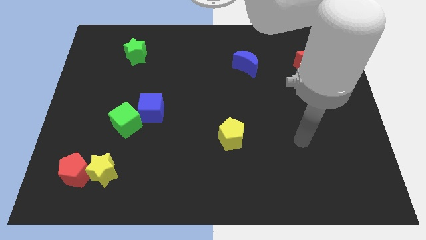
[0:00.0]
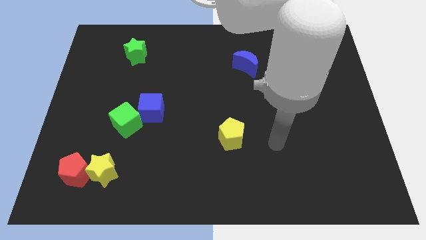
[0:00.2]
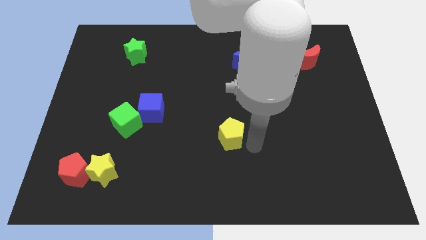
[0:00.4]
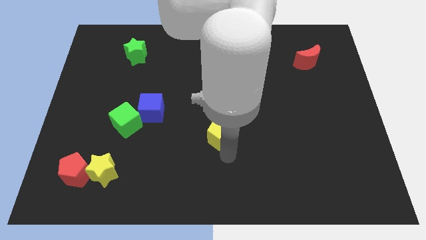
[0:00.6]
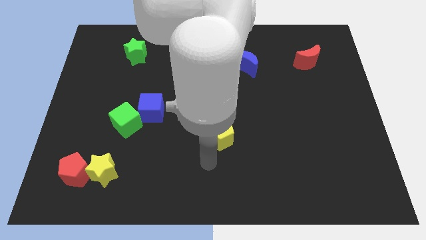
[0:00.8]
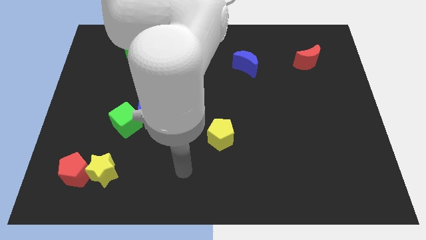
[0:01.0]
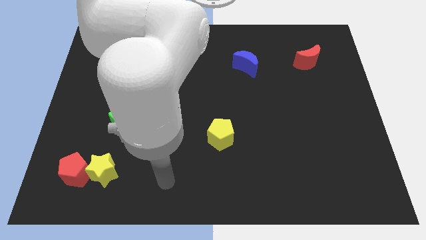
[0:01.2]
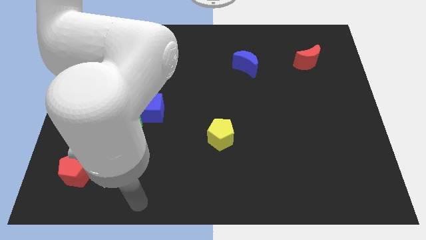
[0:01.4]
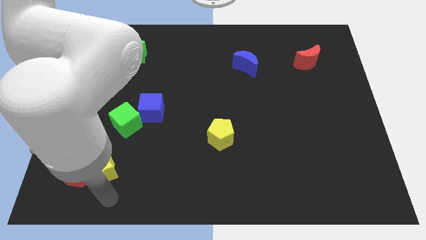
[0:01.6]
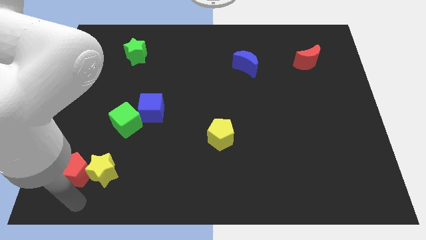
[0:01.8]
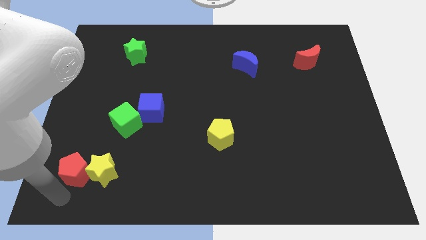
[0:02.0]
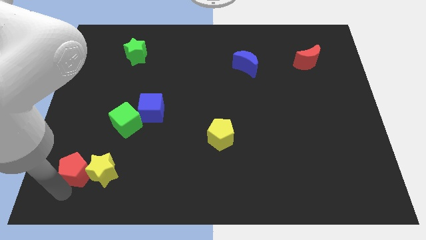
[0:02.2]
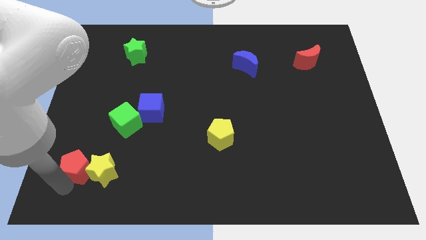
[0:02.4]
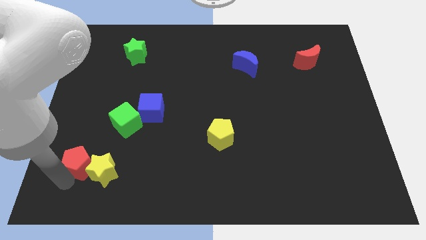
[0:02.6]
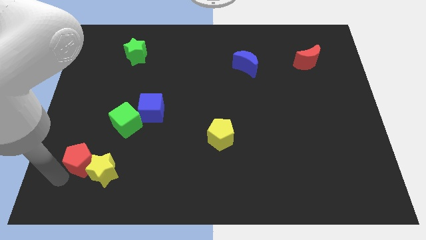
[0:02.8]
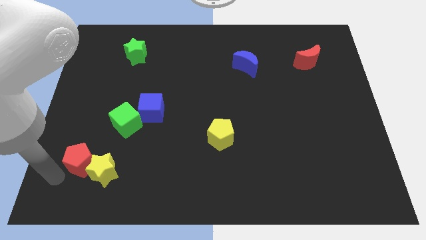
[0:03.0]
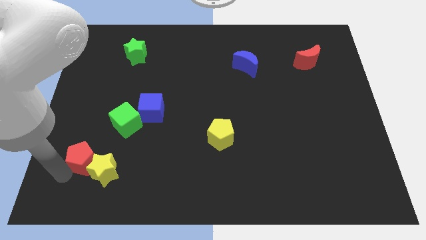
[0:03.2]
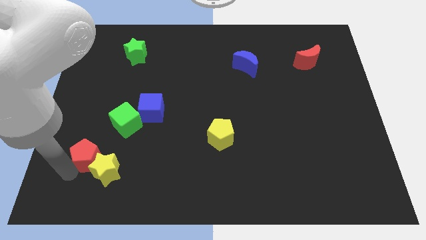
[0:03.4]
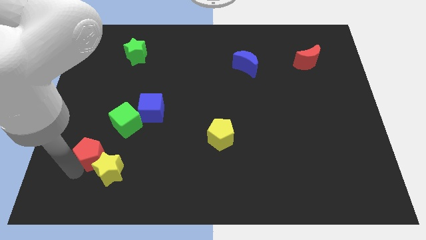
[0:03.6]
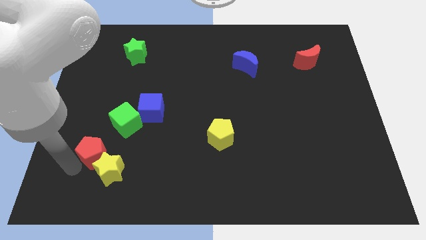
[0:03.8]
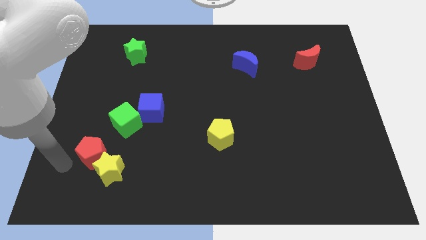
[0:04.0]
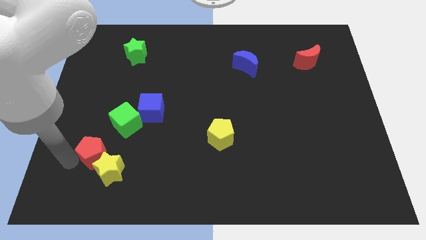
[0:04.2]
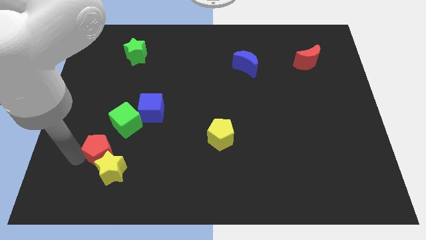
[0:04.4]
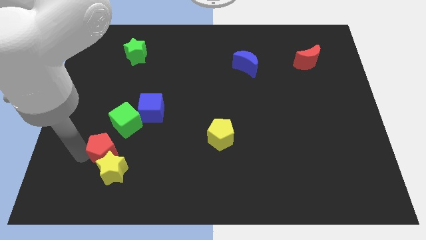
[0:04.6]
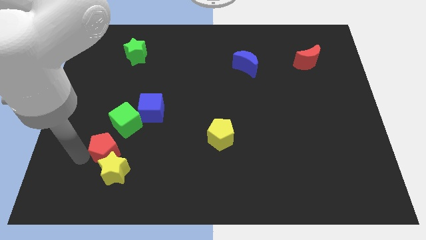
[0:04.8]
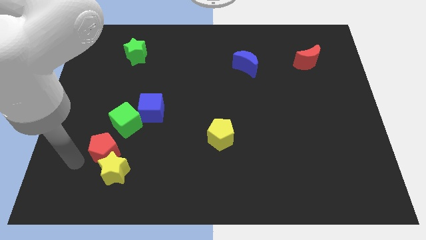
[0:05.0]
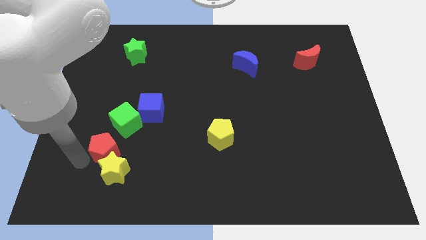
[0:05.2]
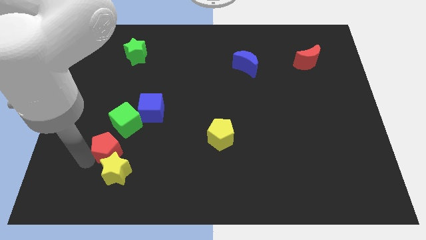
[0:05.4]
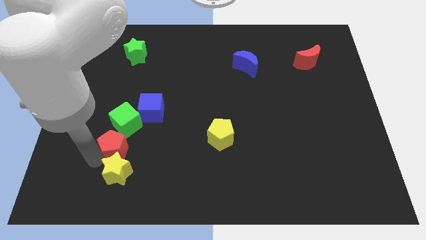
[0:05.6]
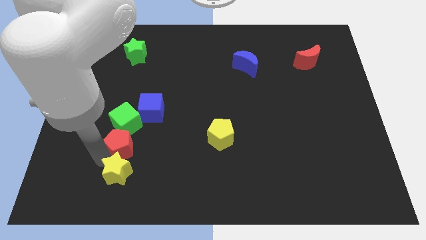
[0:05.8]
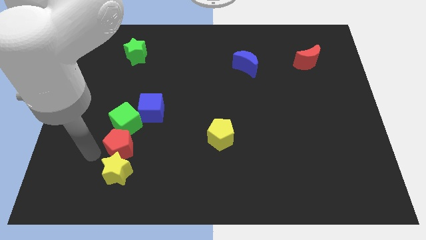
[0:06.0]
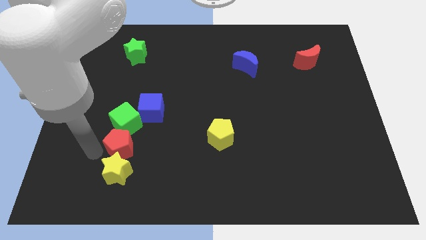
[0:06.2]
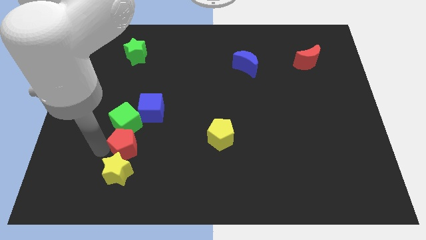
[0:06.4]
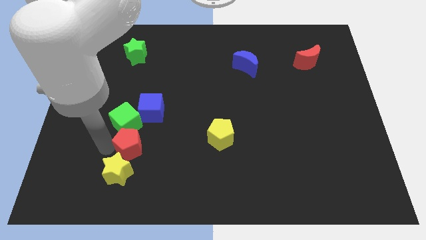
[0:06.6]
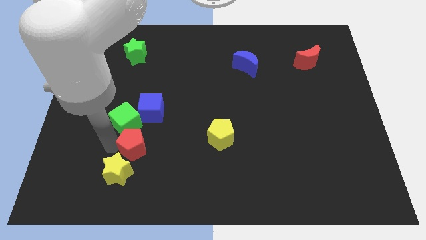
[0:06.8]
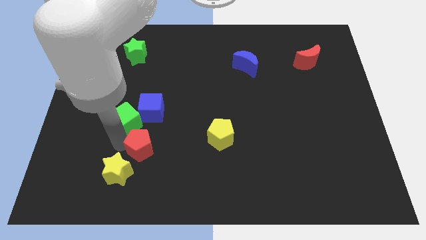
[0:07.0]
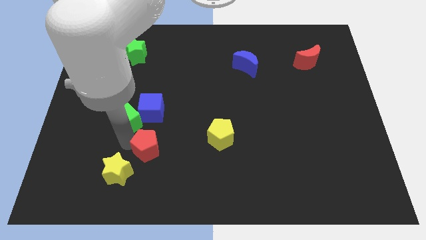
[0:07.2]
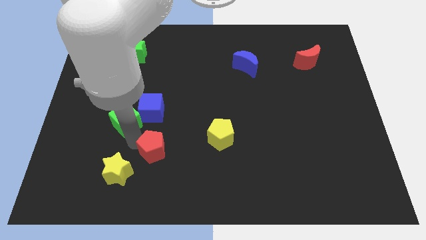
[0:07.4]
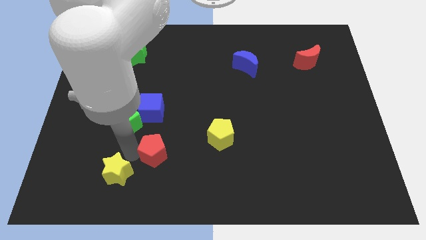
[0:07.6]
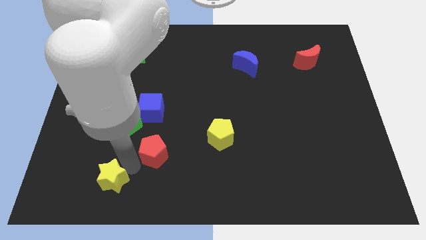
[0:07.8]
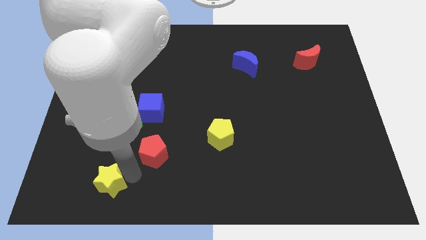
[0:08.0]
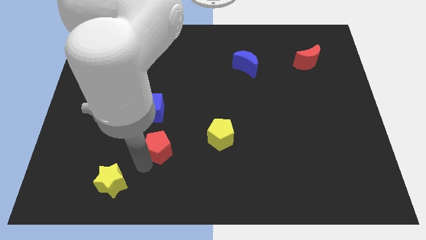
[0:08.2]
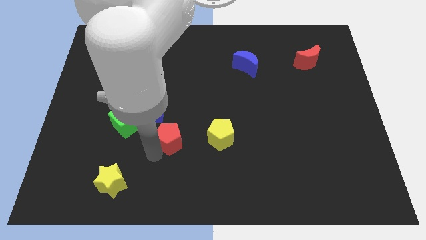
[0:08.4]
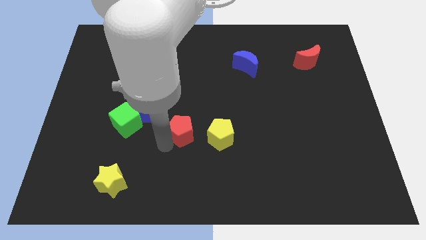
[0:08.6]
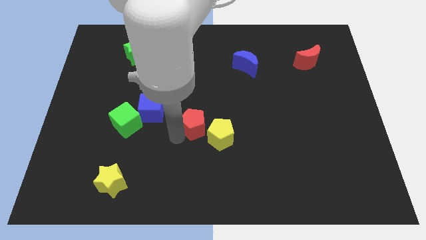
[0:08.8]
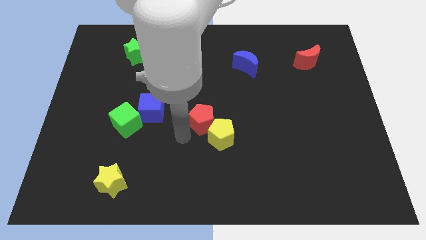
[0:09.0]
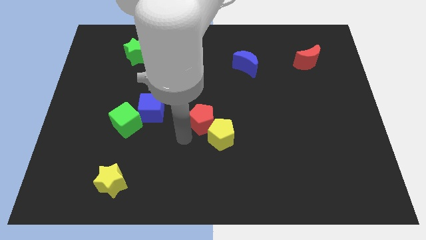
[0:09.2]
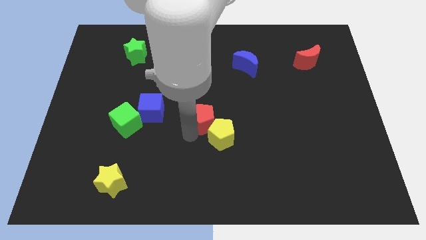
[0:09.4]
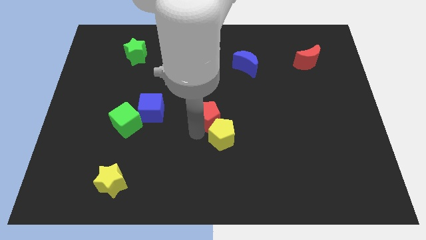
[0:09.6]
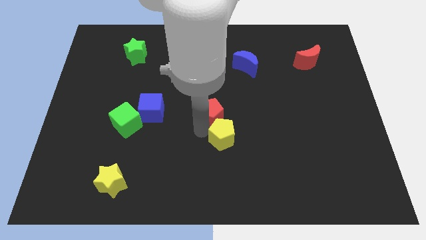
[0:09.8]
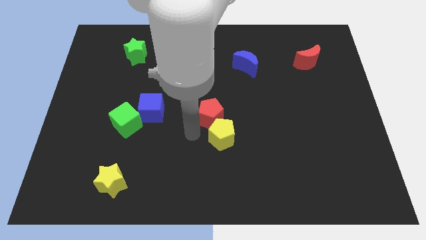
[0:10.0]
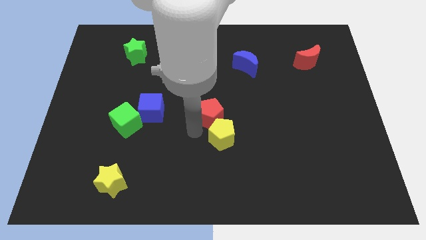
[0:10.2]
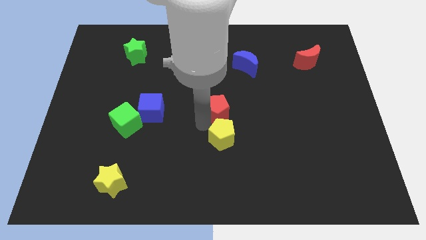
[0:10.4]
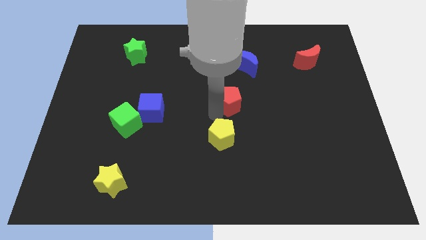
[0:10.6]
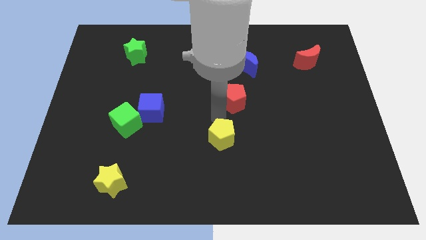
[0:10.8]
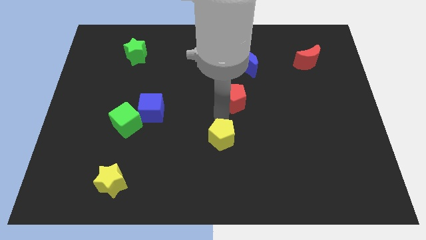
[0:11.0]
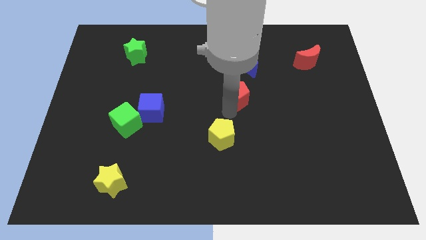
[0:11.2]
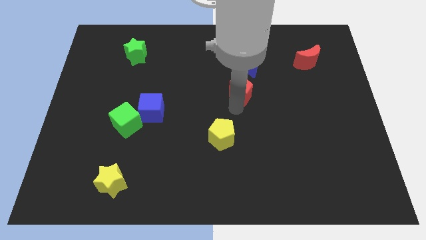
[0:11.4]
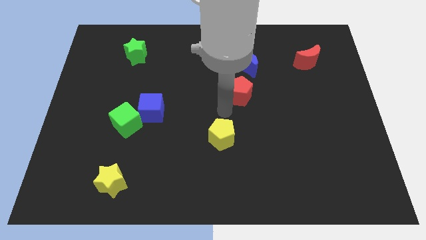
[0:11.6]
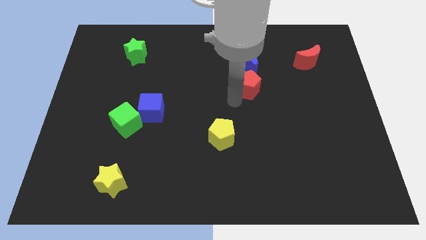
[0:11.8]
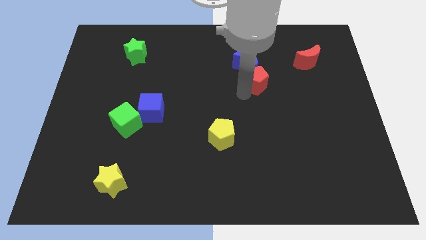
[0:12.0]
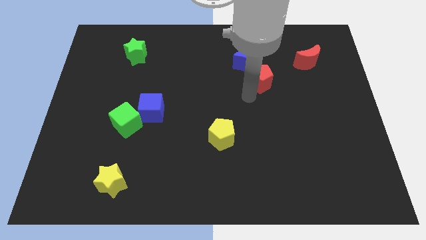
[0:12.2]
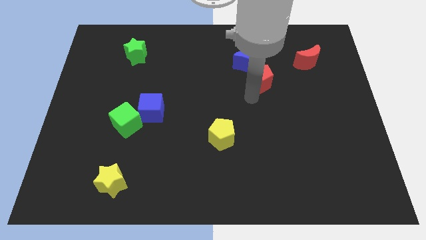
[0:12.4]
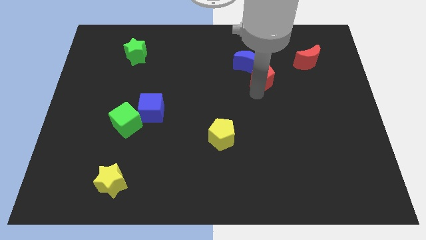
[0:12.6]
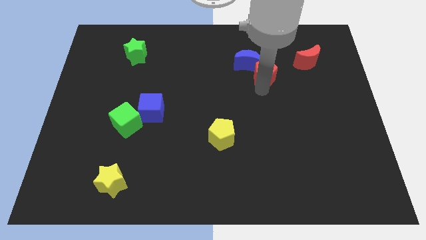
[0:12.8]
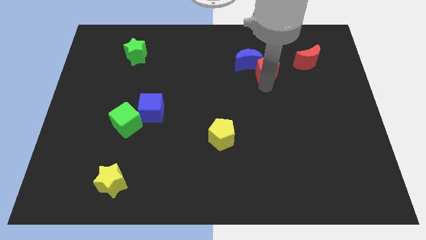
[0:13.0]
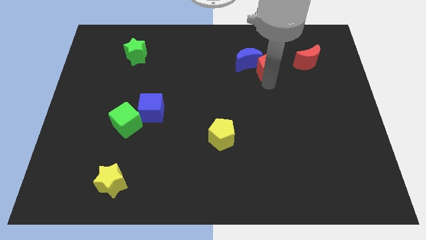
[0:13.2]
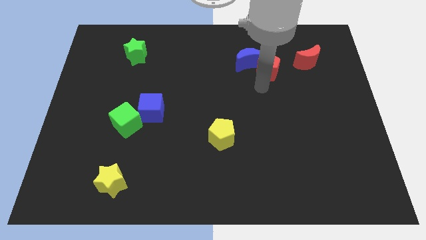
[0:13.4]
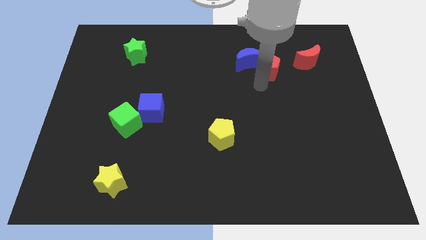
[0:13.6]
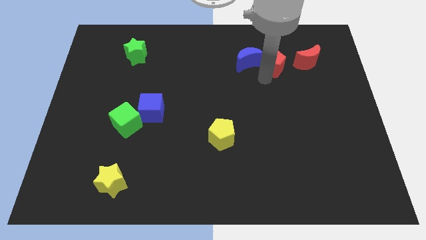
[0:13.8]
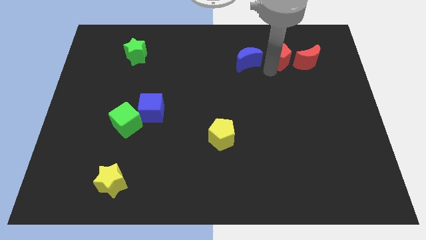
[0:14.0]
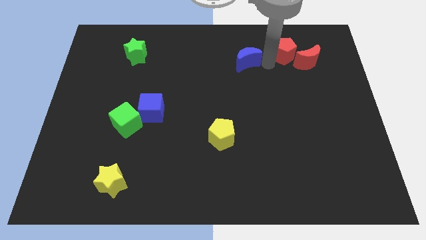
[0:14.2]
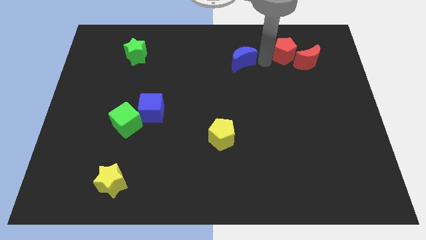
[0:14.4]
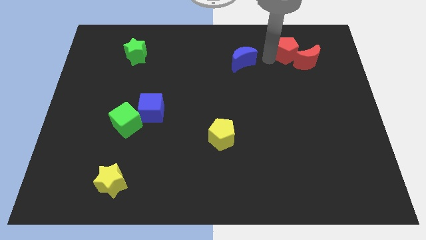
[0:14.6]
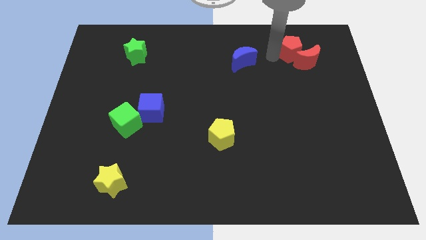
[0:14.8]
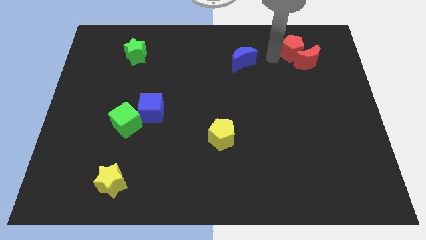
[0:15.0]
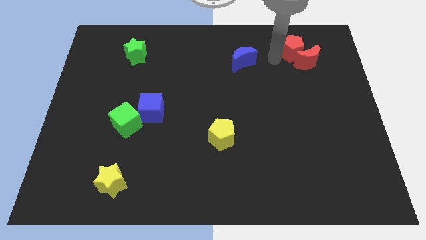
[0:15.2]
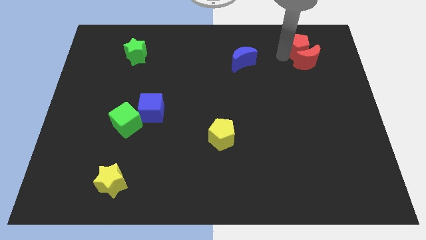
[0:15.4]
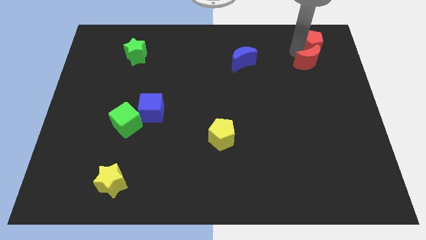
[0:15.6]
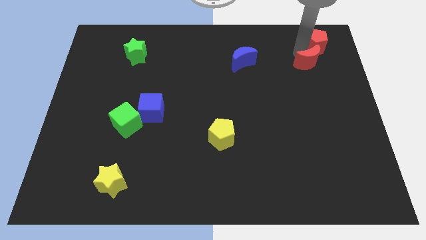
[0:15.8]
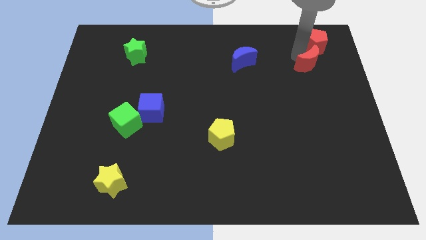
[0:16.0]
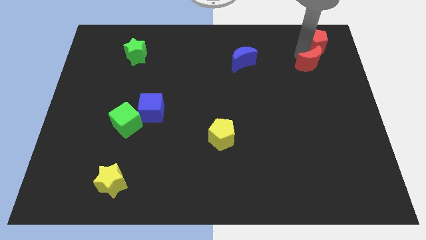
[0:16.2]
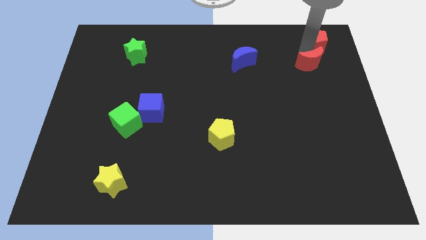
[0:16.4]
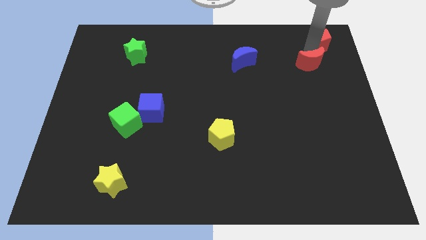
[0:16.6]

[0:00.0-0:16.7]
push the red pentagon to the top right of the board
